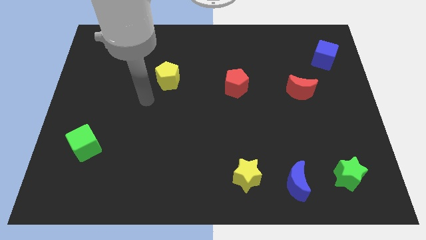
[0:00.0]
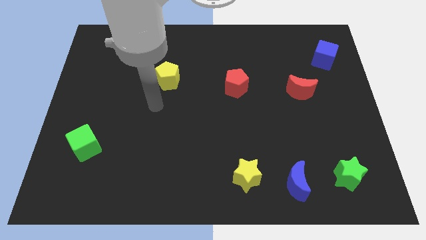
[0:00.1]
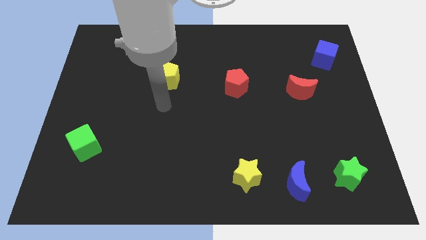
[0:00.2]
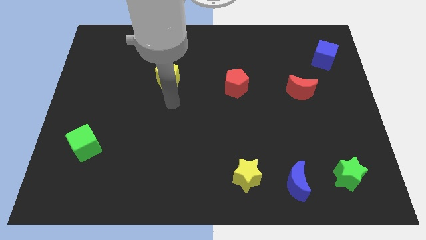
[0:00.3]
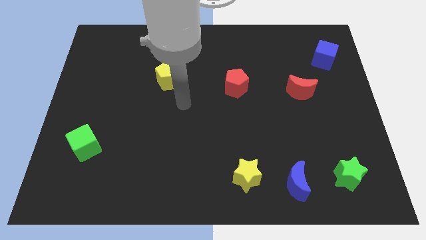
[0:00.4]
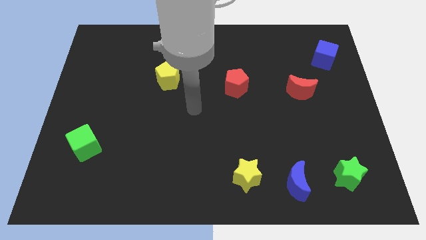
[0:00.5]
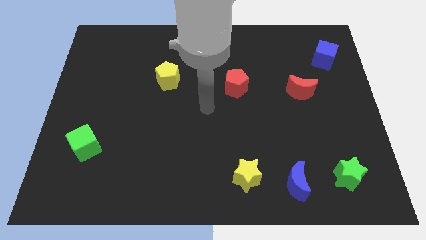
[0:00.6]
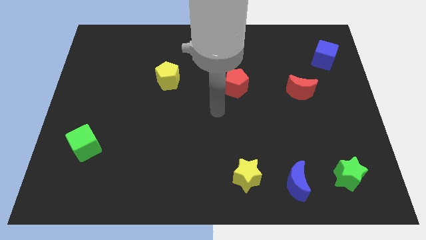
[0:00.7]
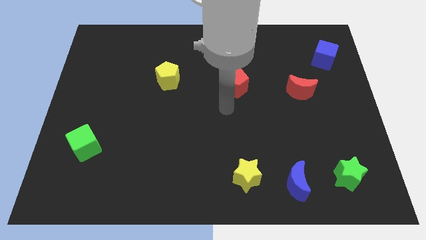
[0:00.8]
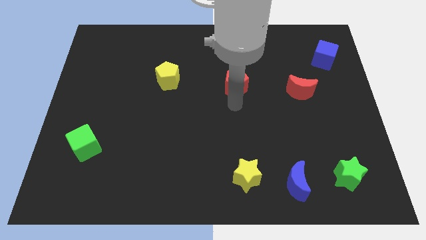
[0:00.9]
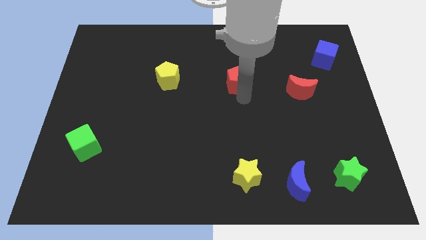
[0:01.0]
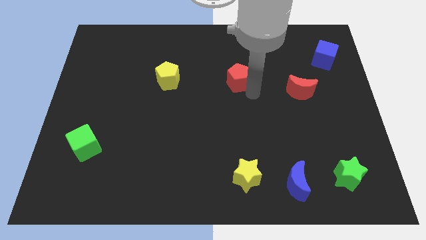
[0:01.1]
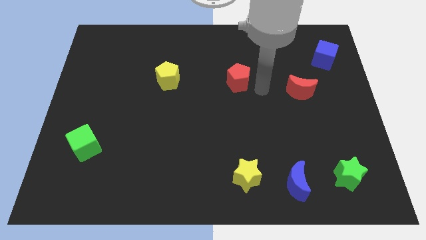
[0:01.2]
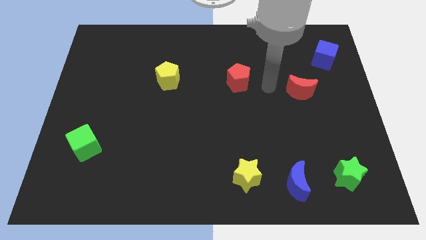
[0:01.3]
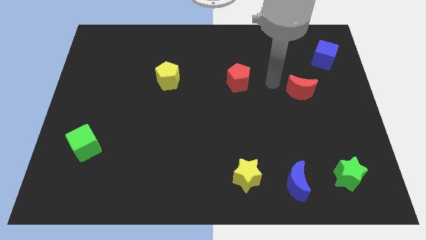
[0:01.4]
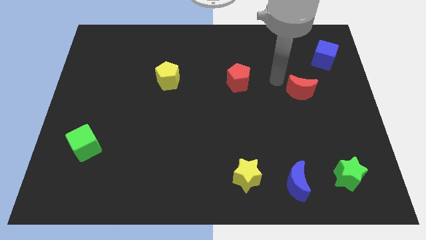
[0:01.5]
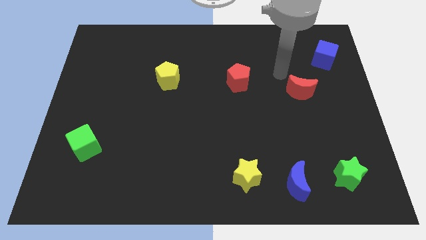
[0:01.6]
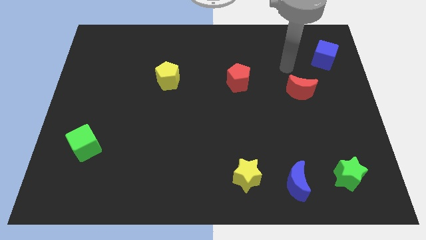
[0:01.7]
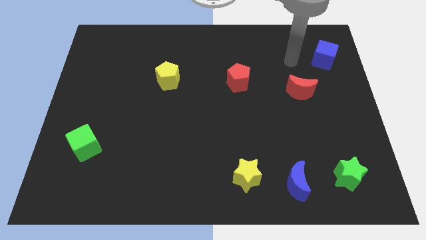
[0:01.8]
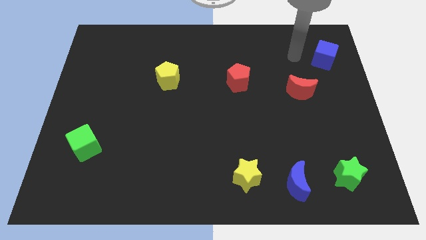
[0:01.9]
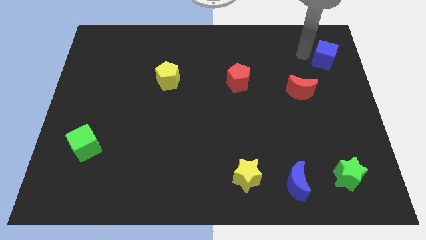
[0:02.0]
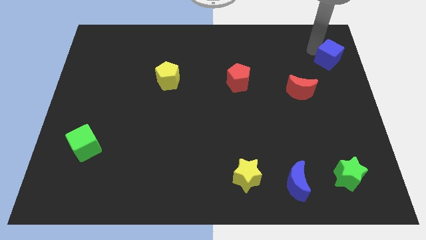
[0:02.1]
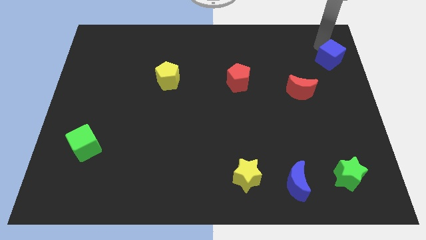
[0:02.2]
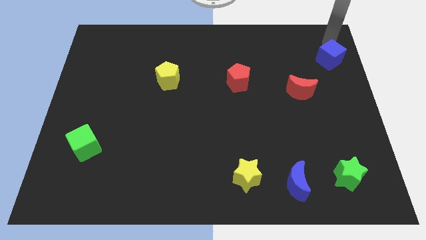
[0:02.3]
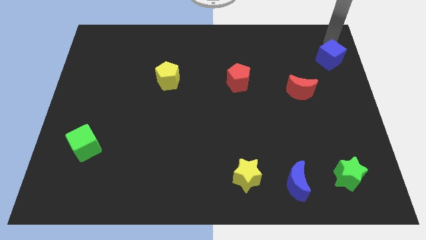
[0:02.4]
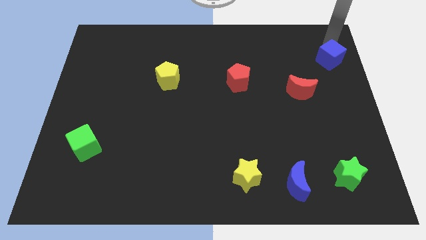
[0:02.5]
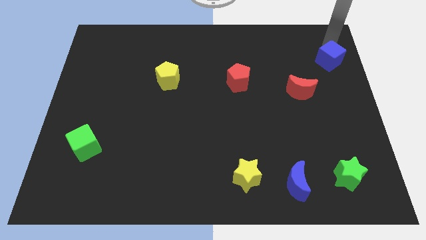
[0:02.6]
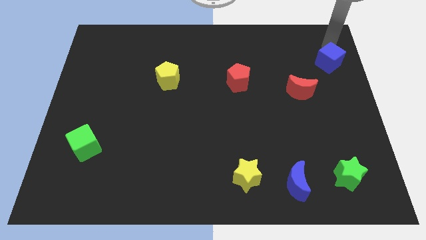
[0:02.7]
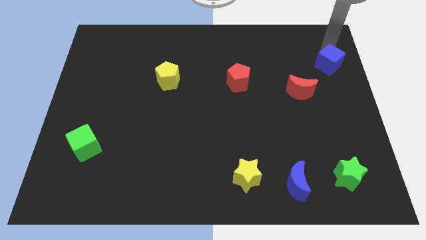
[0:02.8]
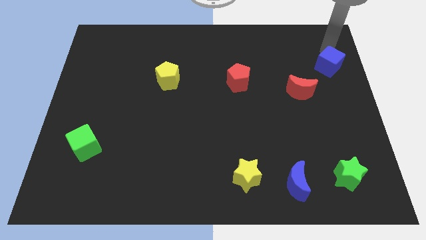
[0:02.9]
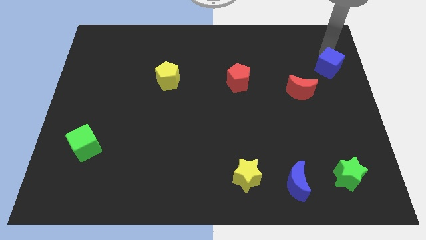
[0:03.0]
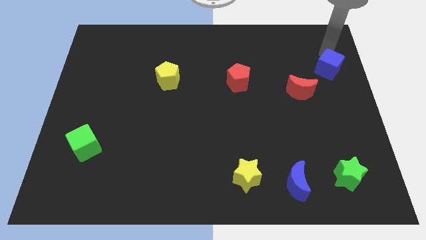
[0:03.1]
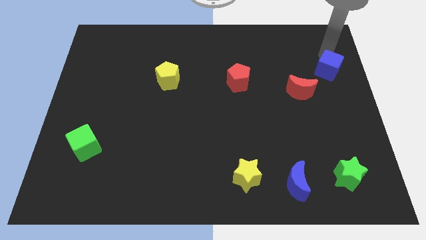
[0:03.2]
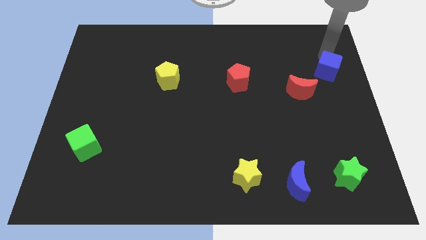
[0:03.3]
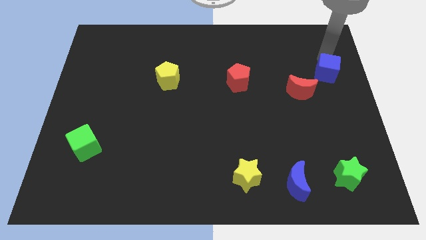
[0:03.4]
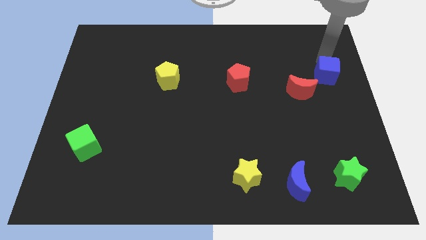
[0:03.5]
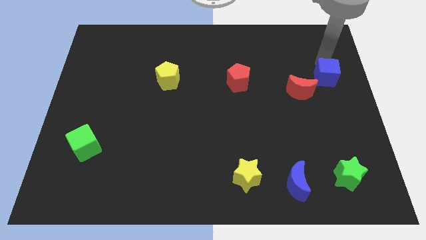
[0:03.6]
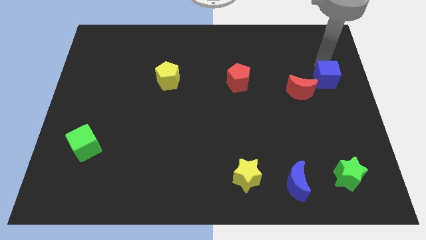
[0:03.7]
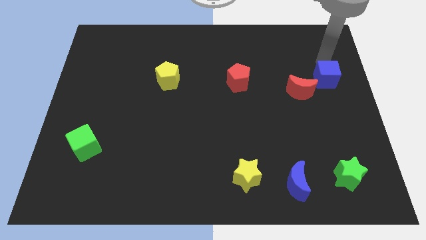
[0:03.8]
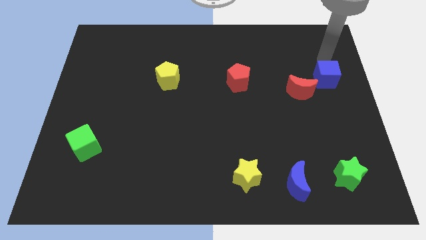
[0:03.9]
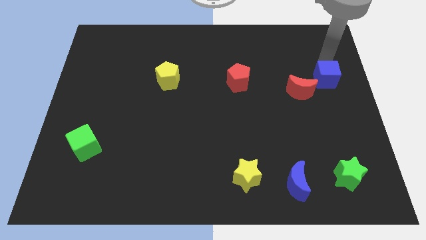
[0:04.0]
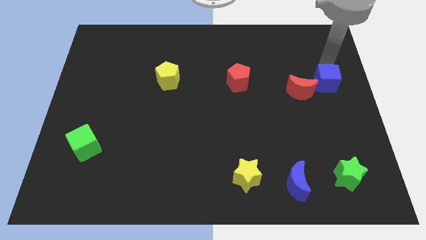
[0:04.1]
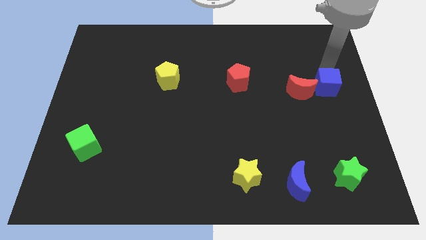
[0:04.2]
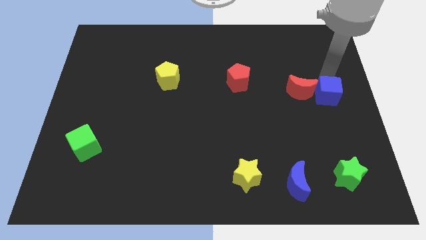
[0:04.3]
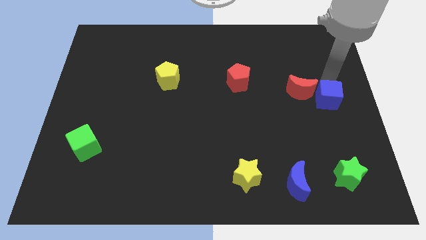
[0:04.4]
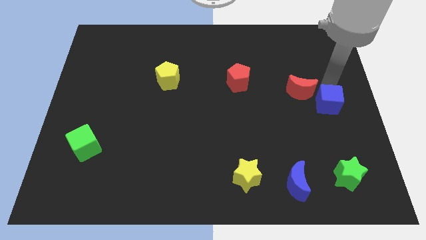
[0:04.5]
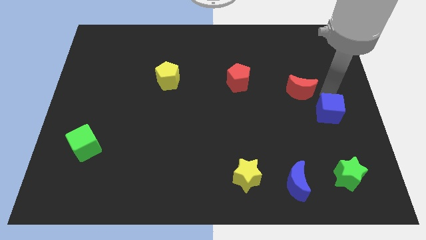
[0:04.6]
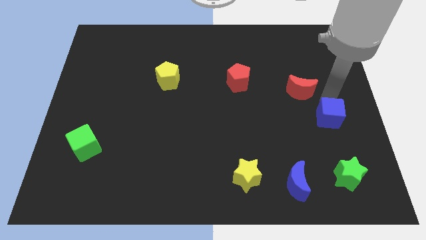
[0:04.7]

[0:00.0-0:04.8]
push the blue cube to the top side of the green star

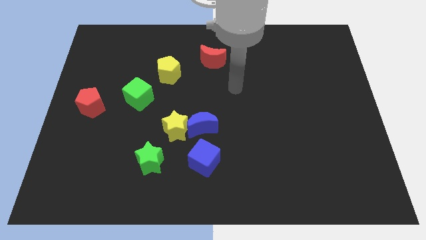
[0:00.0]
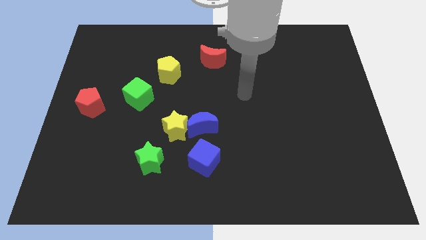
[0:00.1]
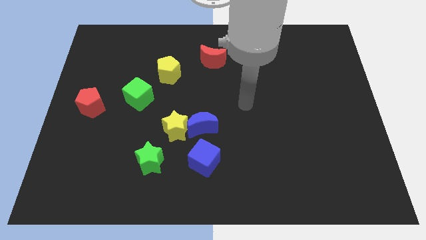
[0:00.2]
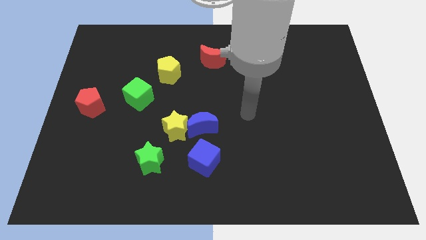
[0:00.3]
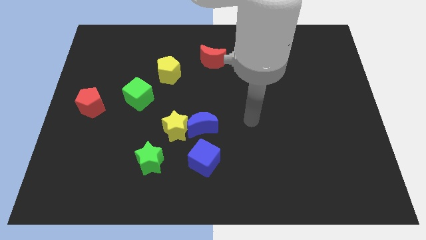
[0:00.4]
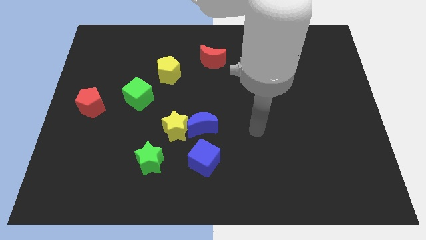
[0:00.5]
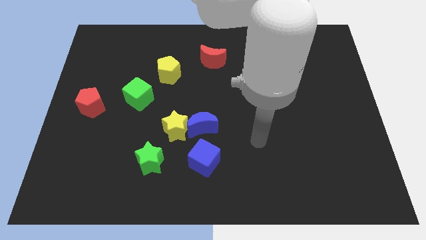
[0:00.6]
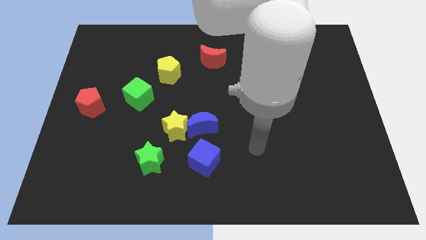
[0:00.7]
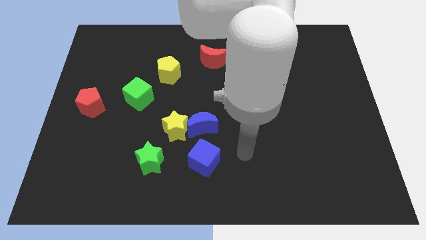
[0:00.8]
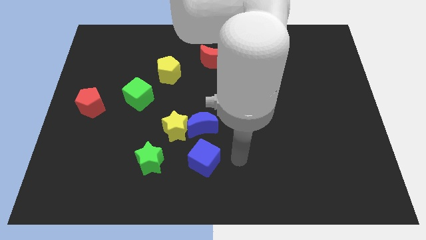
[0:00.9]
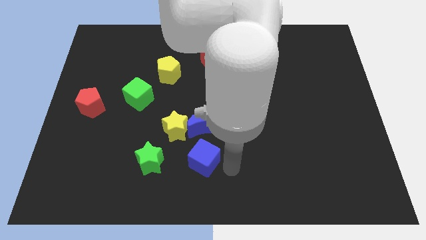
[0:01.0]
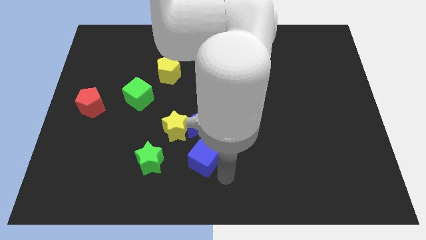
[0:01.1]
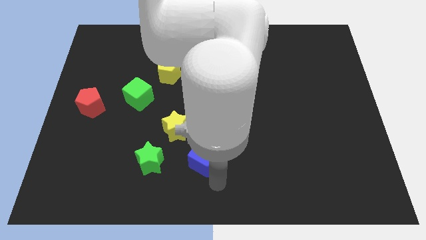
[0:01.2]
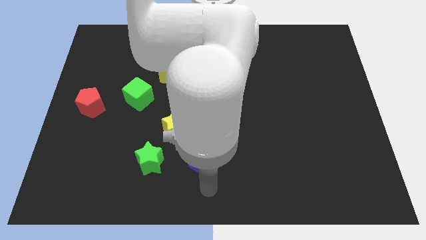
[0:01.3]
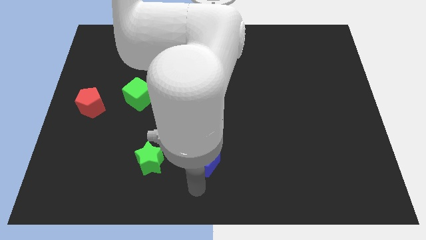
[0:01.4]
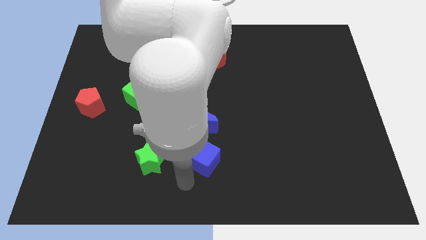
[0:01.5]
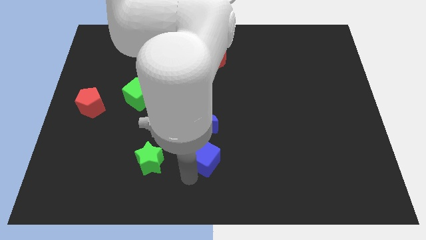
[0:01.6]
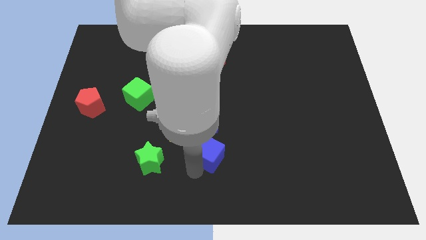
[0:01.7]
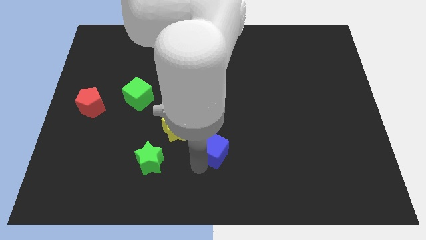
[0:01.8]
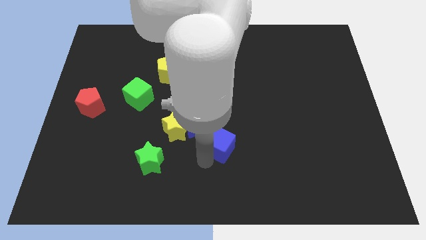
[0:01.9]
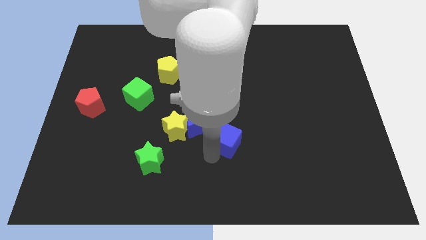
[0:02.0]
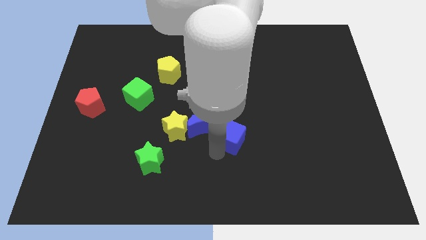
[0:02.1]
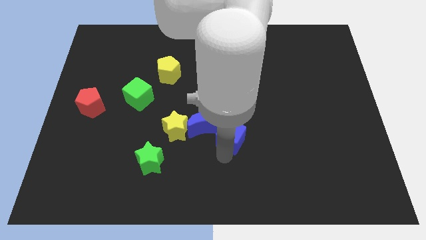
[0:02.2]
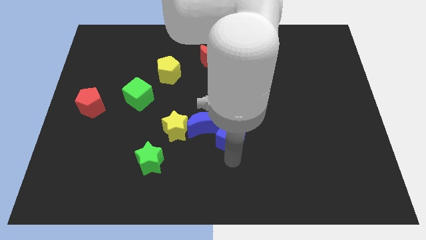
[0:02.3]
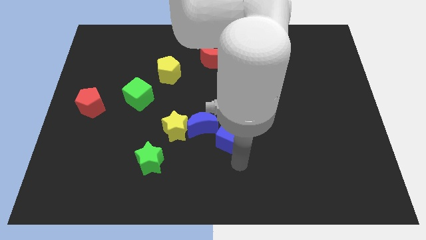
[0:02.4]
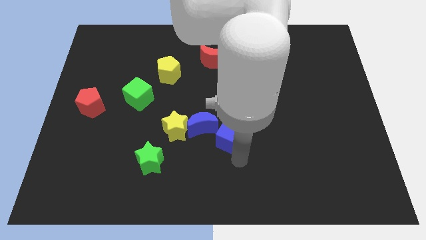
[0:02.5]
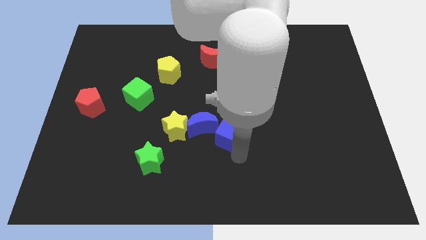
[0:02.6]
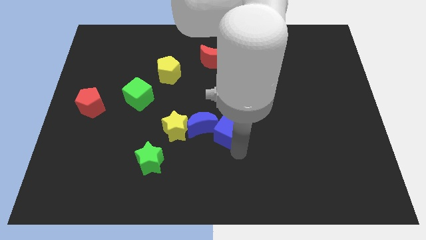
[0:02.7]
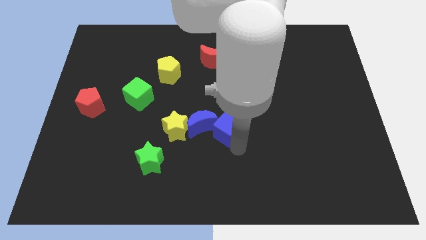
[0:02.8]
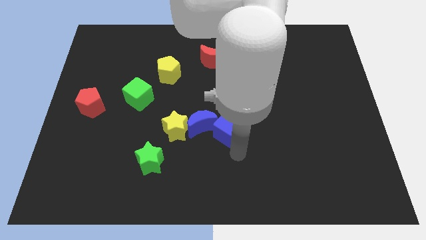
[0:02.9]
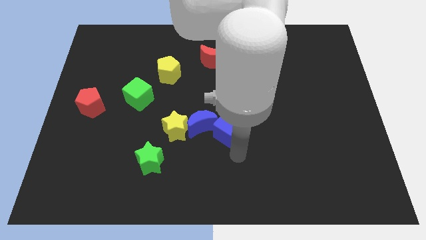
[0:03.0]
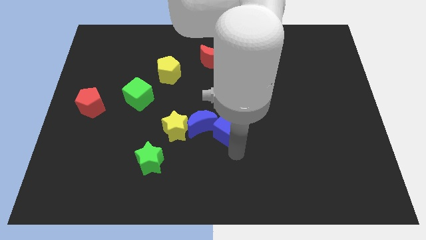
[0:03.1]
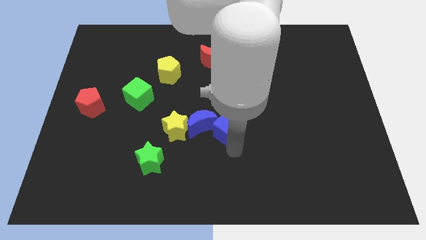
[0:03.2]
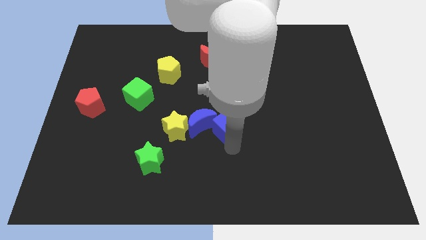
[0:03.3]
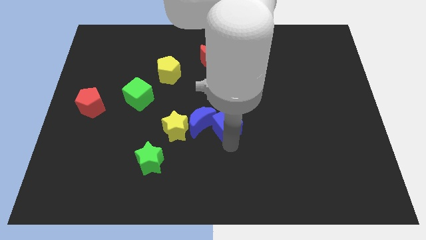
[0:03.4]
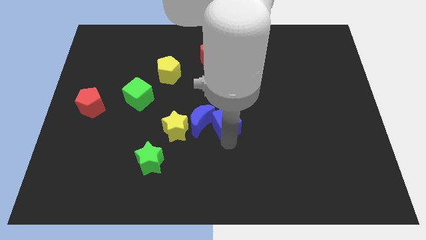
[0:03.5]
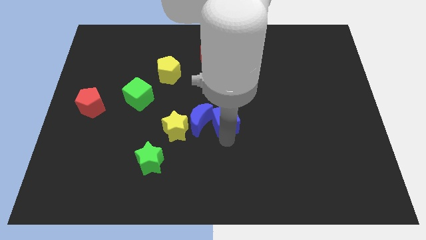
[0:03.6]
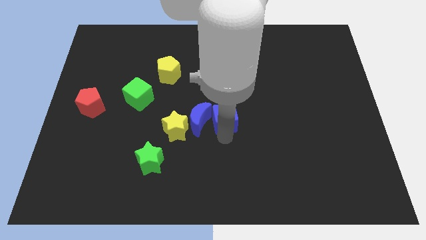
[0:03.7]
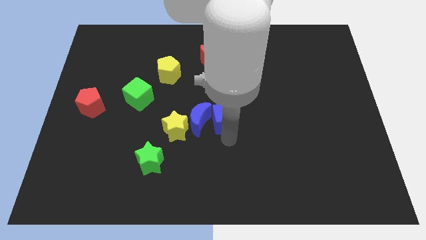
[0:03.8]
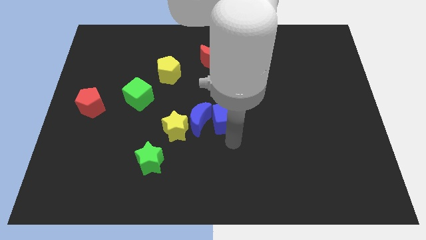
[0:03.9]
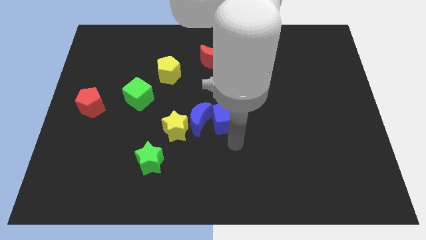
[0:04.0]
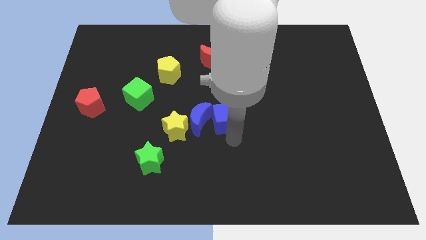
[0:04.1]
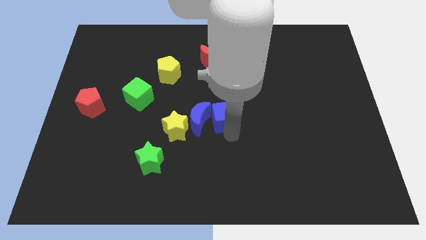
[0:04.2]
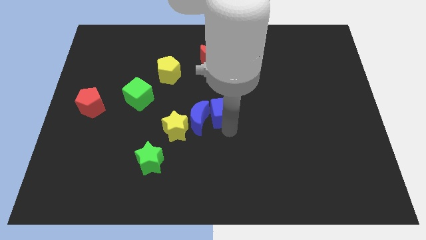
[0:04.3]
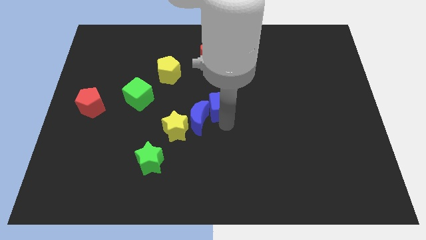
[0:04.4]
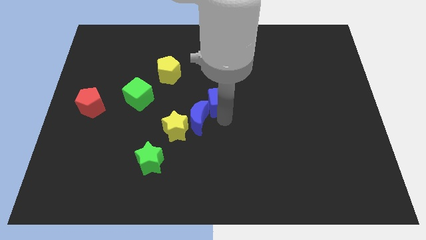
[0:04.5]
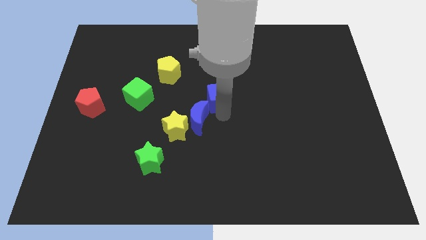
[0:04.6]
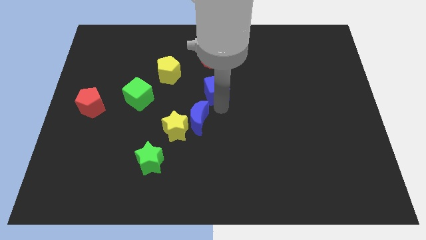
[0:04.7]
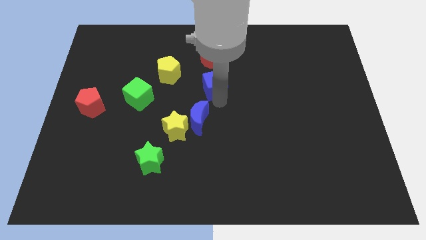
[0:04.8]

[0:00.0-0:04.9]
put the blue cube just right of the yellow pentagon
